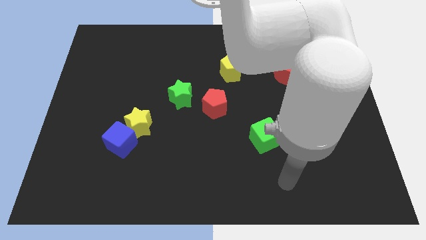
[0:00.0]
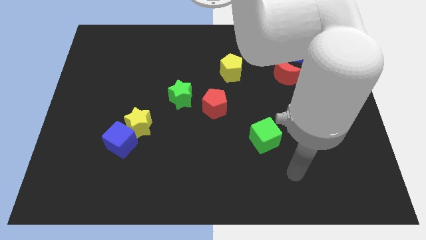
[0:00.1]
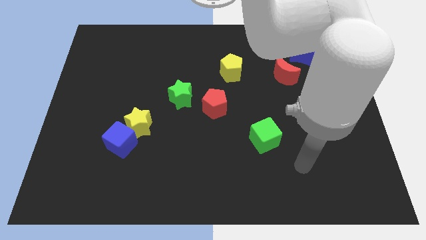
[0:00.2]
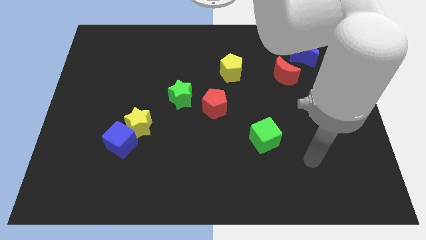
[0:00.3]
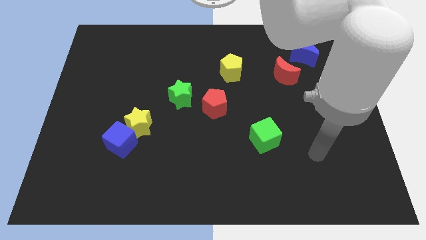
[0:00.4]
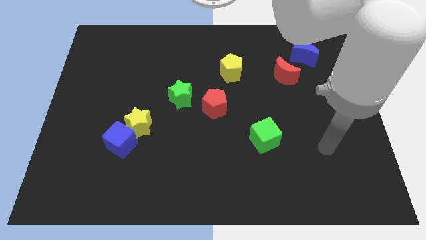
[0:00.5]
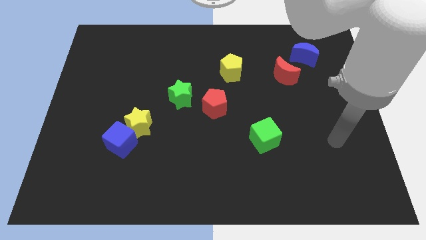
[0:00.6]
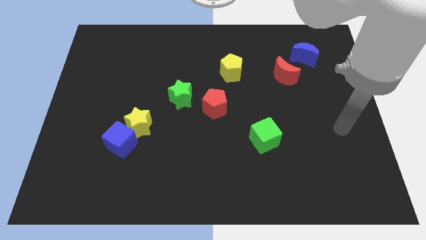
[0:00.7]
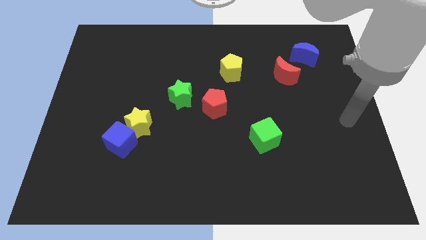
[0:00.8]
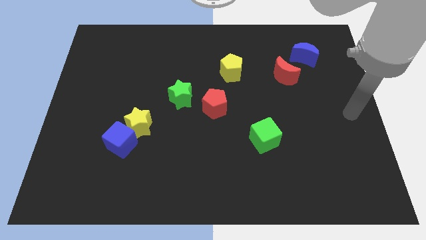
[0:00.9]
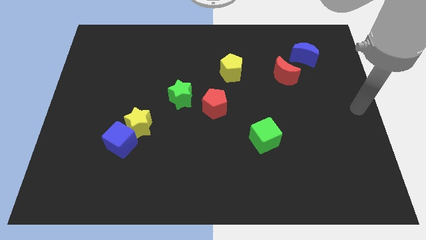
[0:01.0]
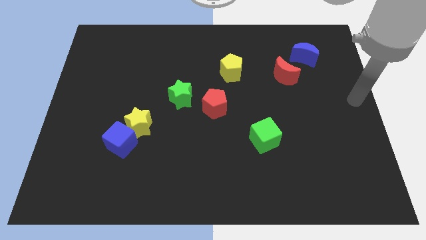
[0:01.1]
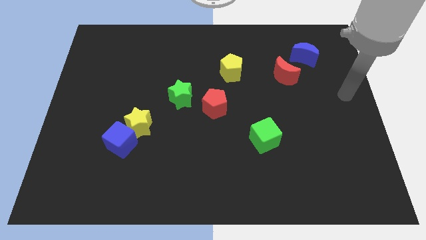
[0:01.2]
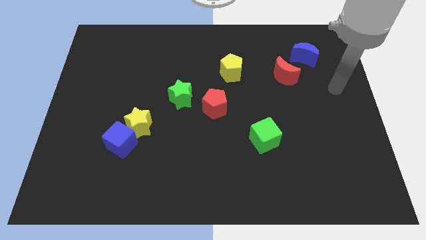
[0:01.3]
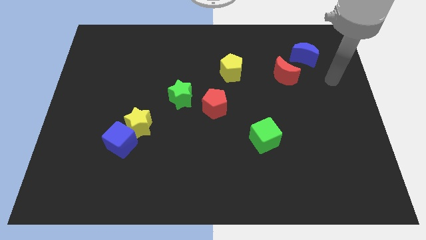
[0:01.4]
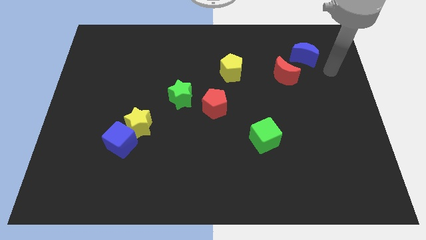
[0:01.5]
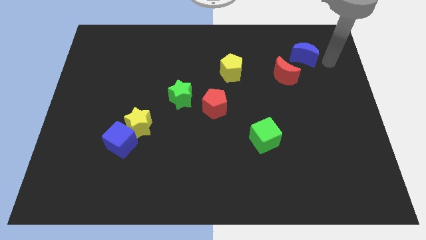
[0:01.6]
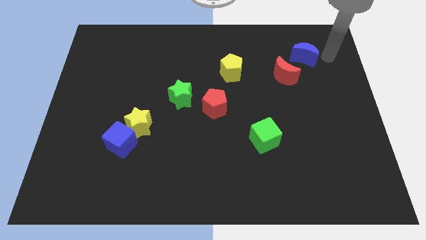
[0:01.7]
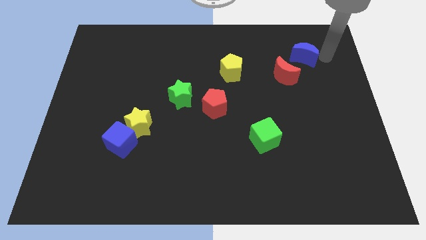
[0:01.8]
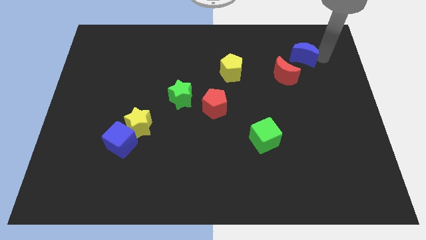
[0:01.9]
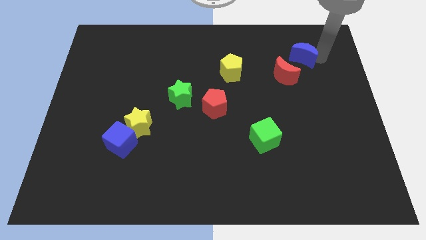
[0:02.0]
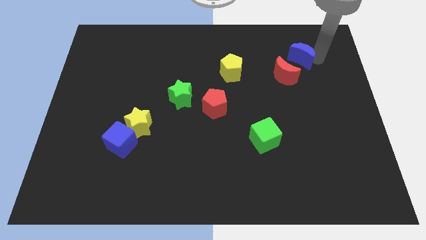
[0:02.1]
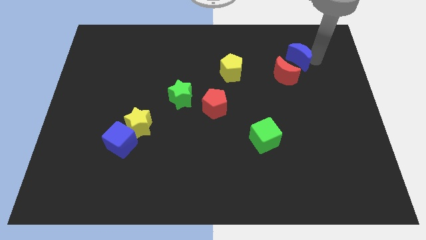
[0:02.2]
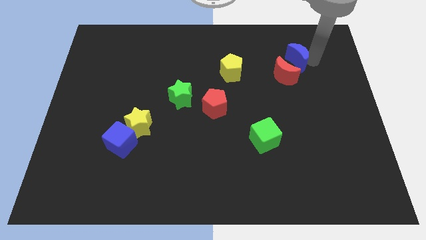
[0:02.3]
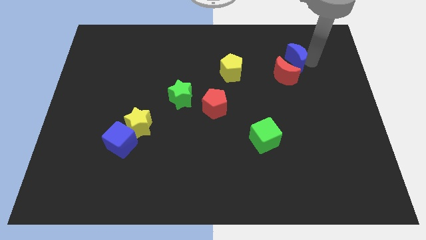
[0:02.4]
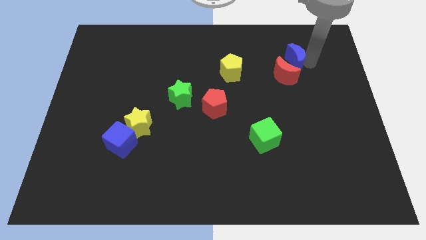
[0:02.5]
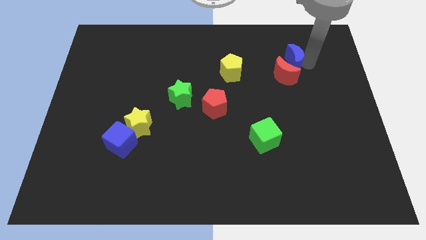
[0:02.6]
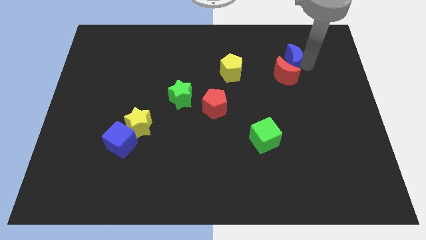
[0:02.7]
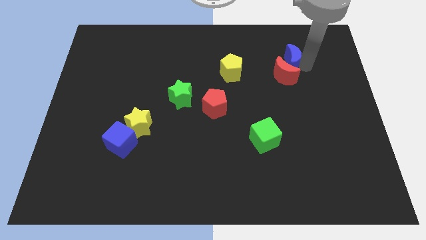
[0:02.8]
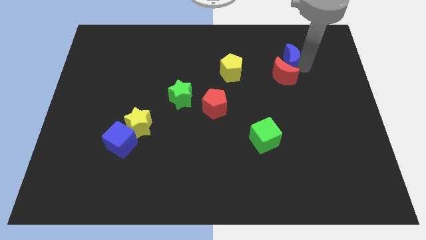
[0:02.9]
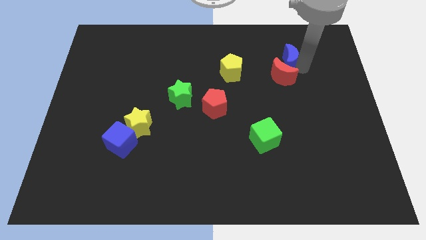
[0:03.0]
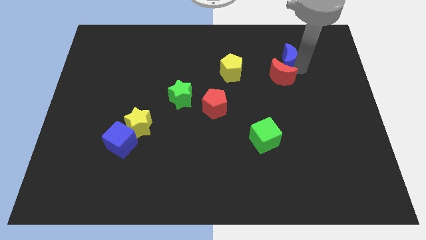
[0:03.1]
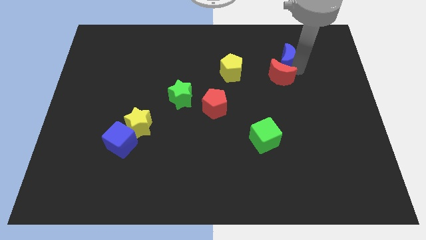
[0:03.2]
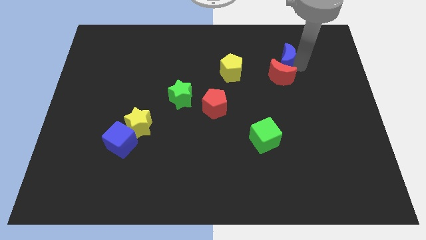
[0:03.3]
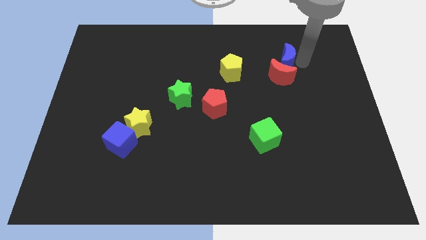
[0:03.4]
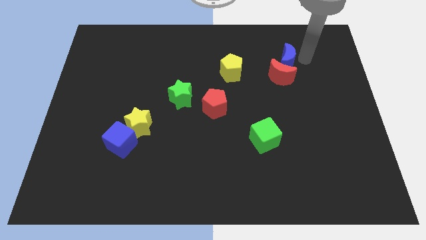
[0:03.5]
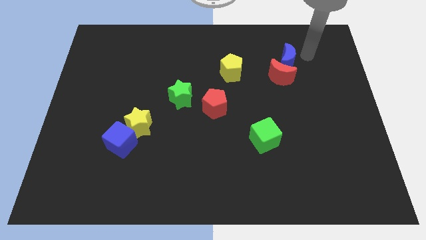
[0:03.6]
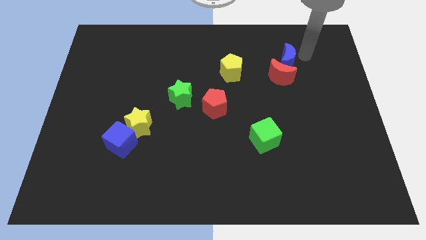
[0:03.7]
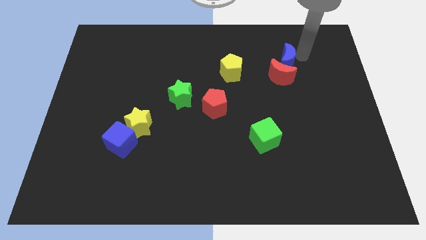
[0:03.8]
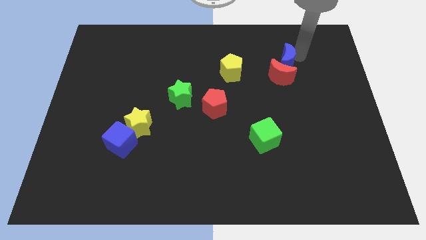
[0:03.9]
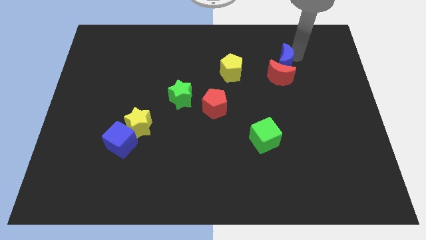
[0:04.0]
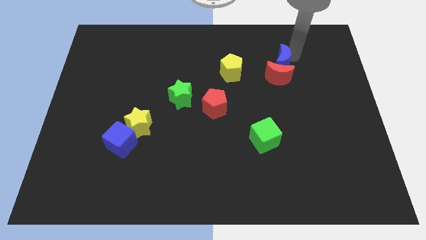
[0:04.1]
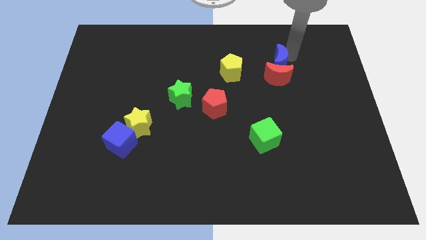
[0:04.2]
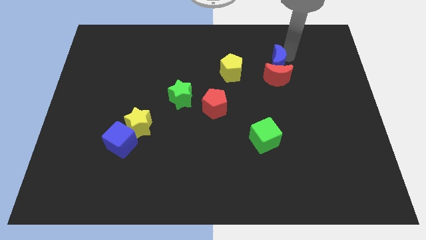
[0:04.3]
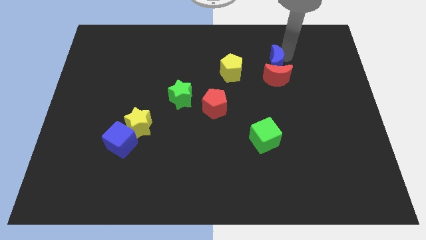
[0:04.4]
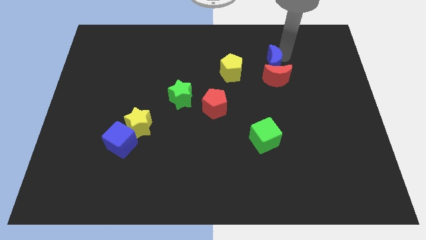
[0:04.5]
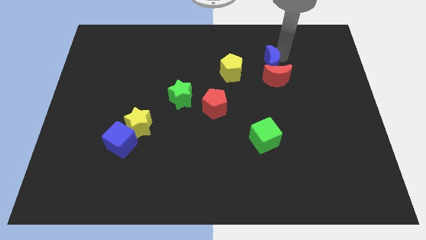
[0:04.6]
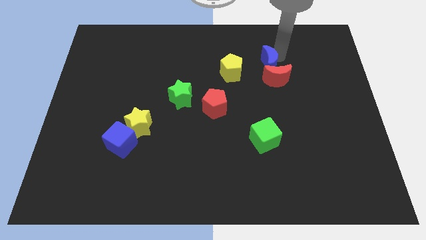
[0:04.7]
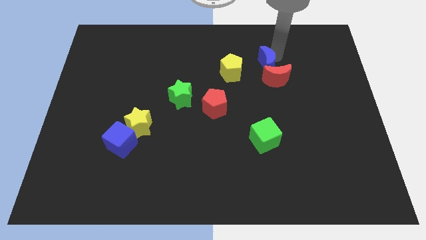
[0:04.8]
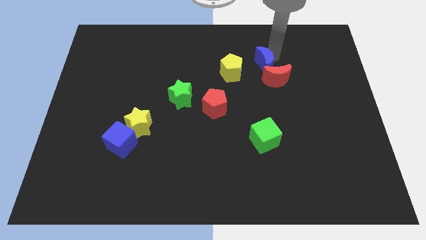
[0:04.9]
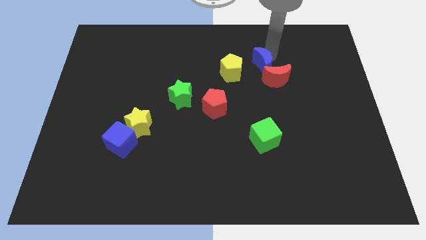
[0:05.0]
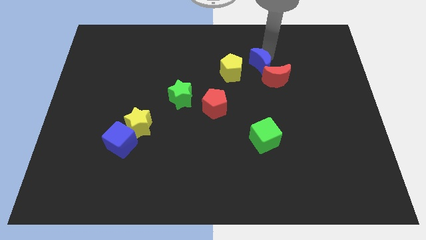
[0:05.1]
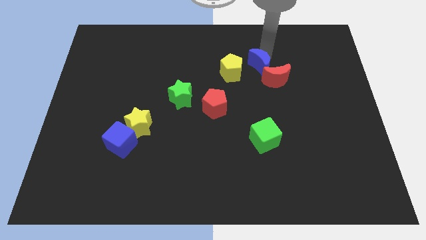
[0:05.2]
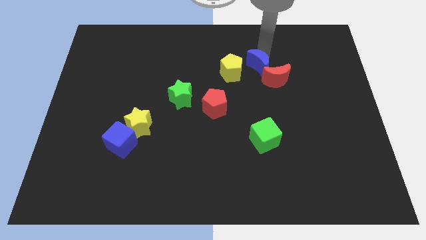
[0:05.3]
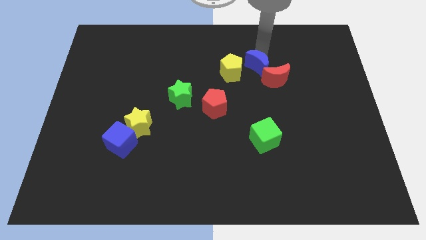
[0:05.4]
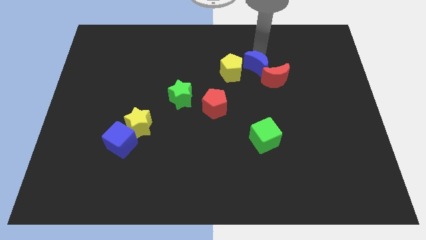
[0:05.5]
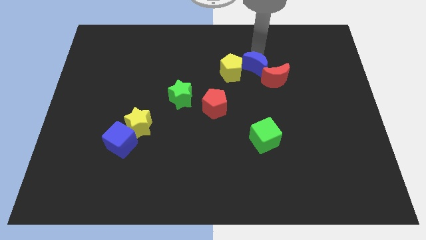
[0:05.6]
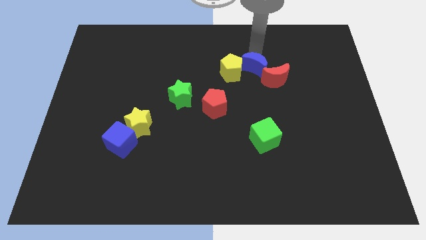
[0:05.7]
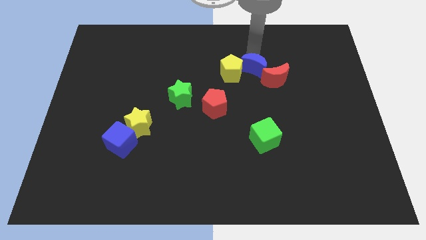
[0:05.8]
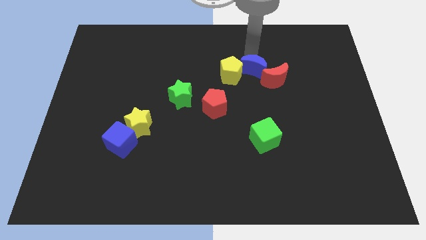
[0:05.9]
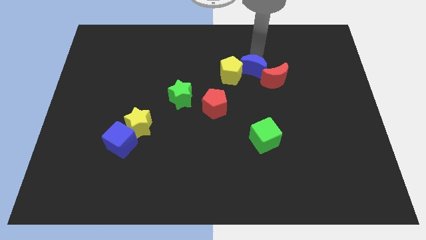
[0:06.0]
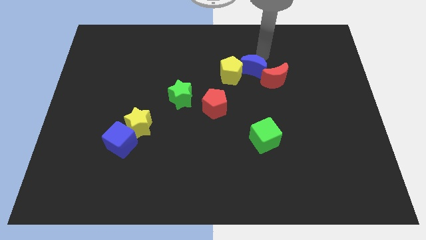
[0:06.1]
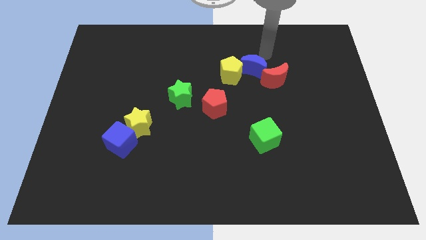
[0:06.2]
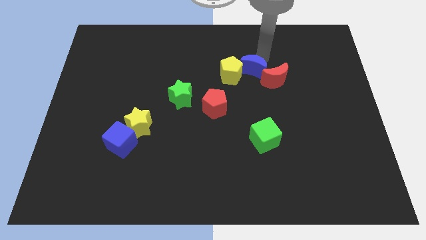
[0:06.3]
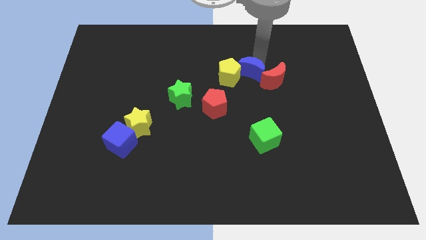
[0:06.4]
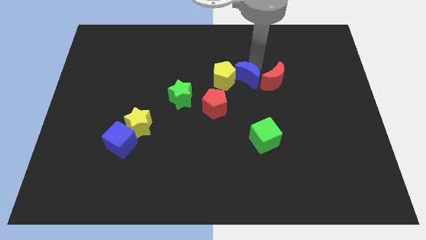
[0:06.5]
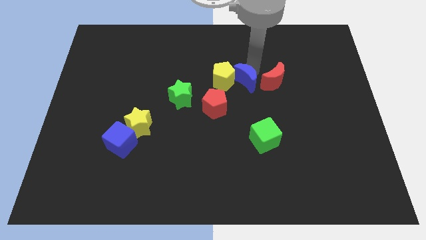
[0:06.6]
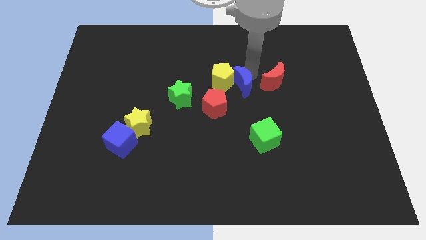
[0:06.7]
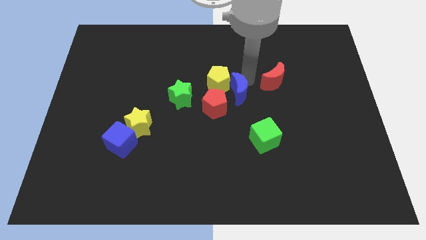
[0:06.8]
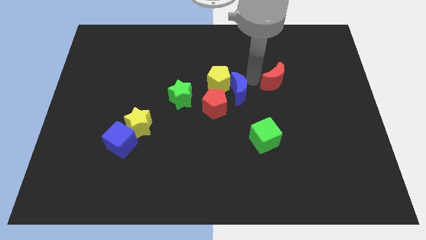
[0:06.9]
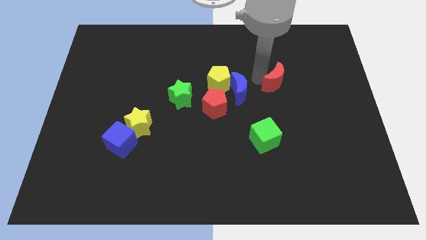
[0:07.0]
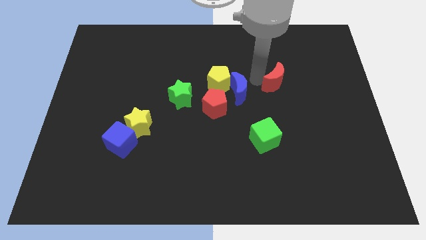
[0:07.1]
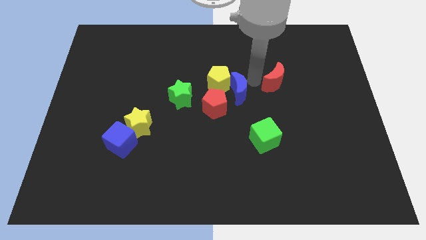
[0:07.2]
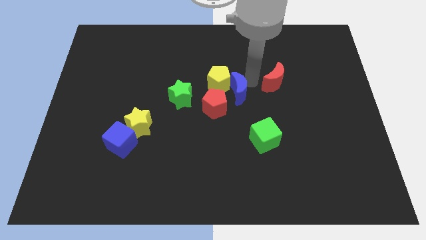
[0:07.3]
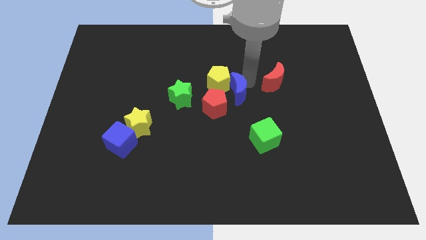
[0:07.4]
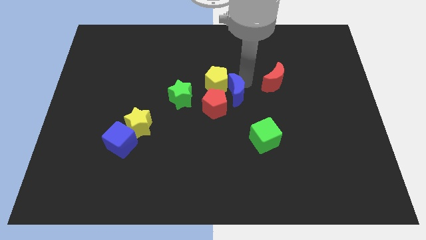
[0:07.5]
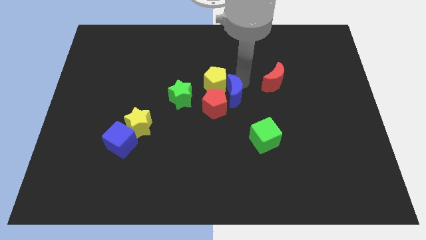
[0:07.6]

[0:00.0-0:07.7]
push the blue moon towards the red pentagon
